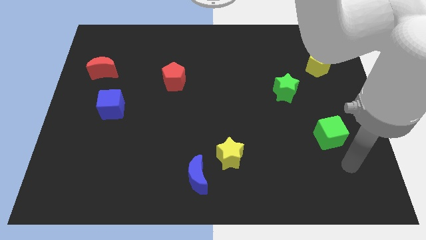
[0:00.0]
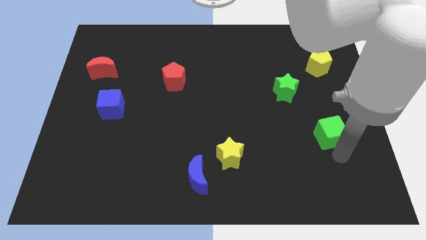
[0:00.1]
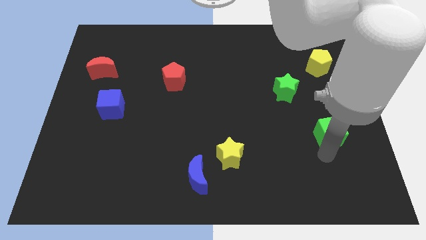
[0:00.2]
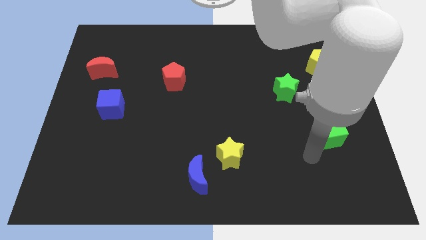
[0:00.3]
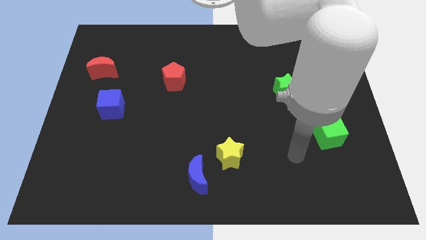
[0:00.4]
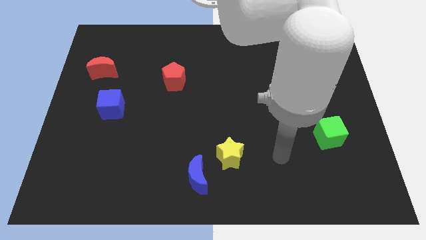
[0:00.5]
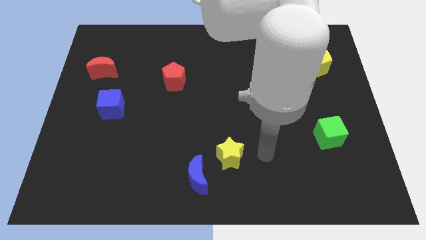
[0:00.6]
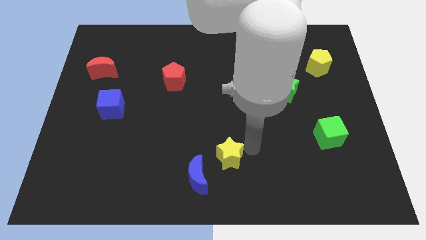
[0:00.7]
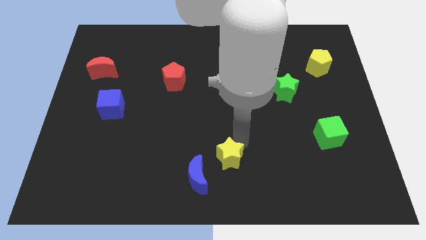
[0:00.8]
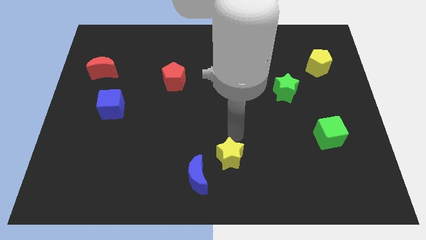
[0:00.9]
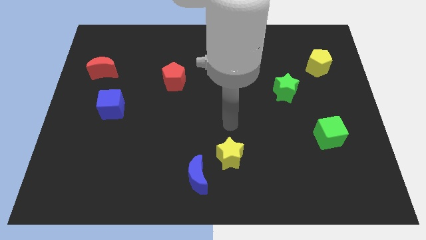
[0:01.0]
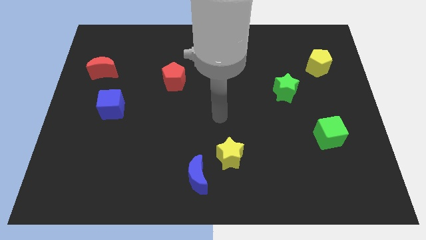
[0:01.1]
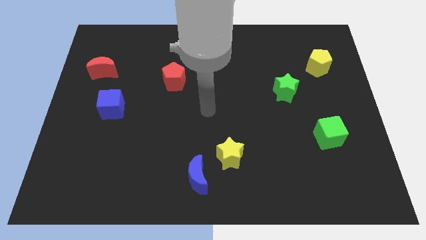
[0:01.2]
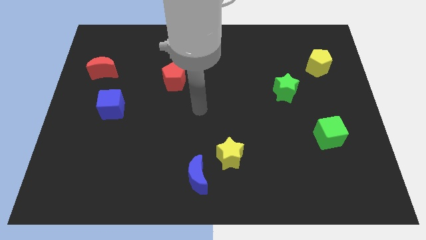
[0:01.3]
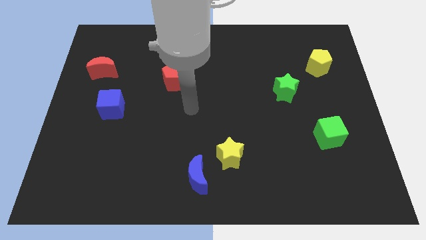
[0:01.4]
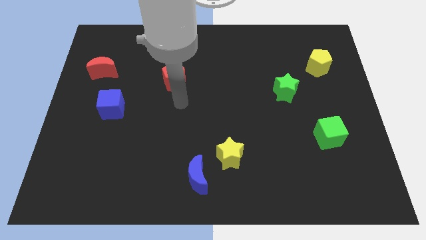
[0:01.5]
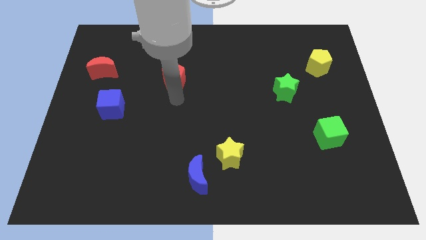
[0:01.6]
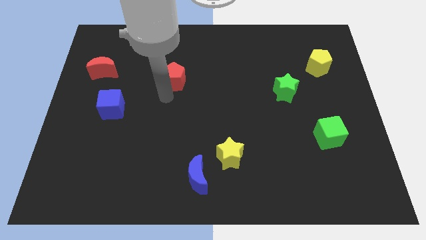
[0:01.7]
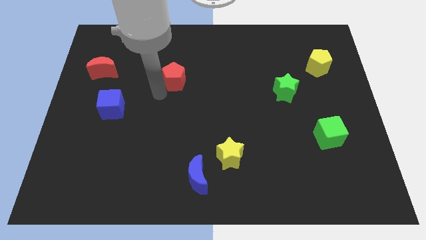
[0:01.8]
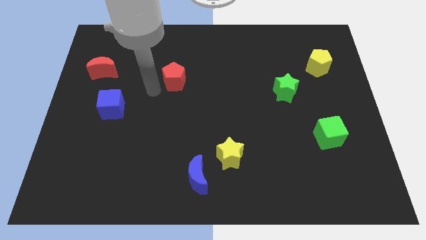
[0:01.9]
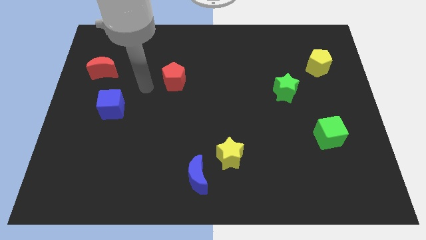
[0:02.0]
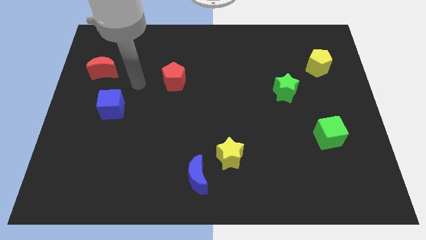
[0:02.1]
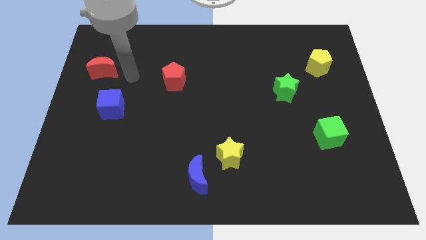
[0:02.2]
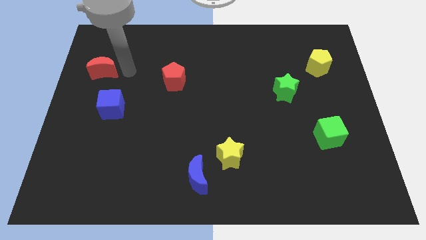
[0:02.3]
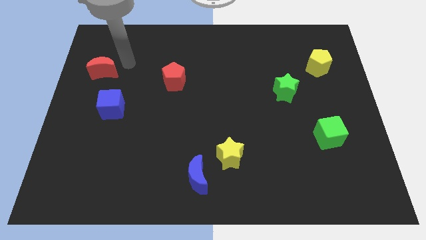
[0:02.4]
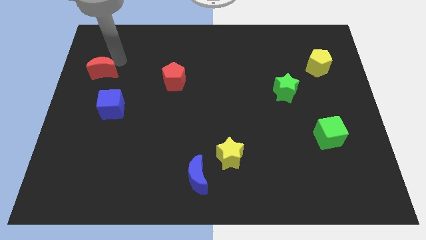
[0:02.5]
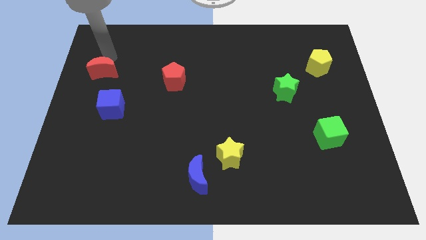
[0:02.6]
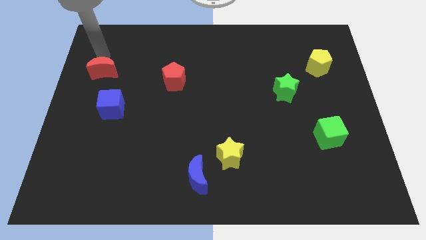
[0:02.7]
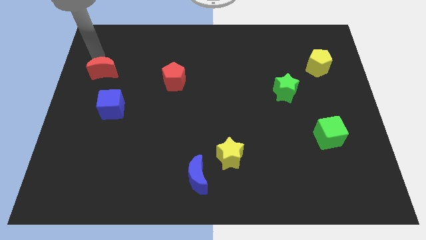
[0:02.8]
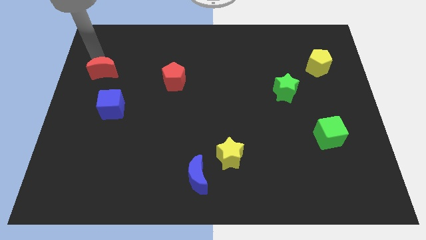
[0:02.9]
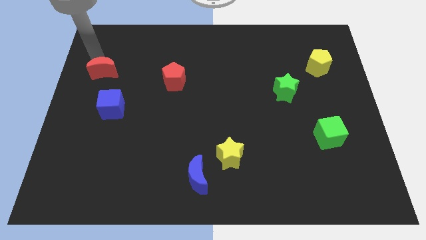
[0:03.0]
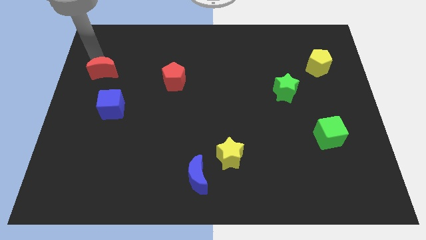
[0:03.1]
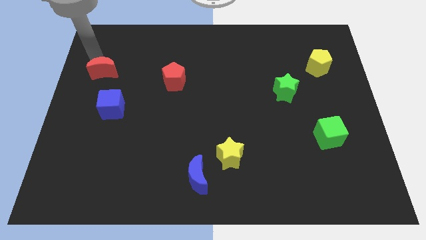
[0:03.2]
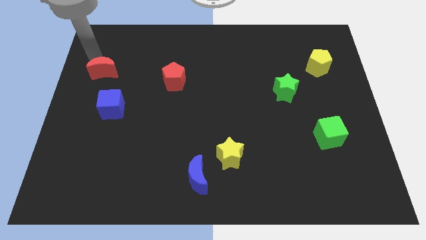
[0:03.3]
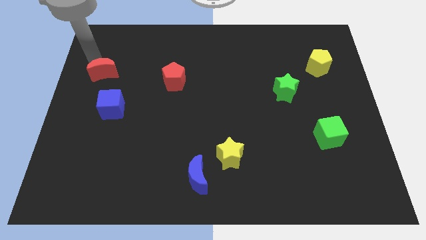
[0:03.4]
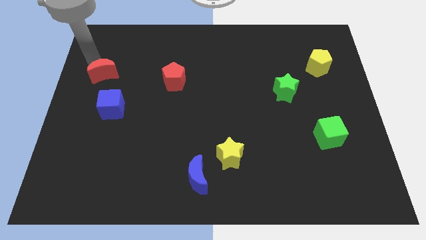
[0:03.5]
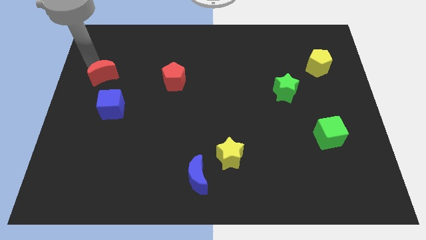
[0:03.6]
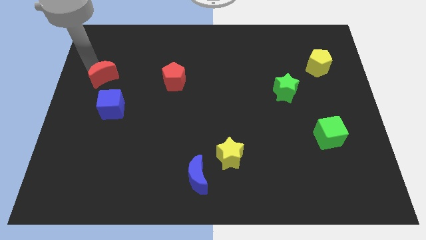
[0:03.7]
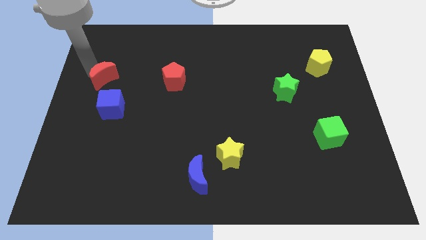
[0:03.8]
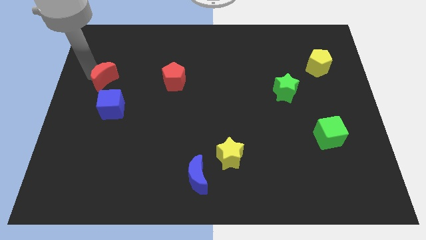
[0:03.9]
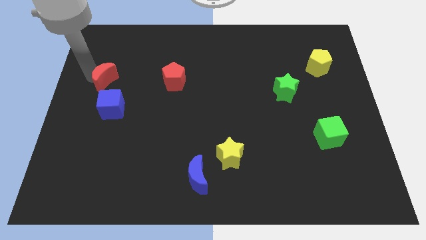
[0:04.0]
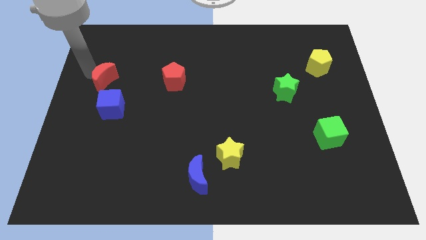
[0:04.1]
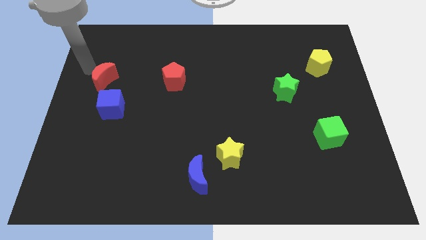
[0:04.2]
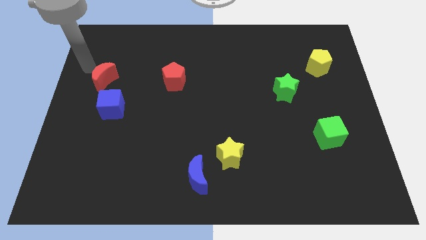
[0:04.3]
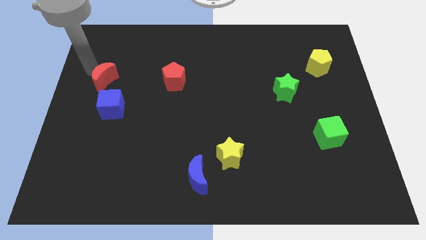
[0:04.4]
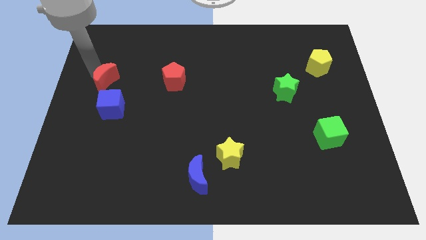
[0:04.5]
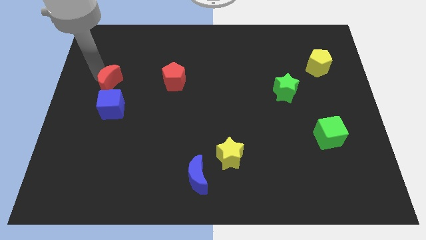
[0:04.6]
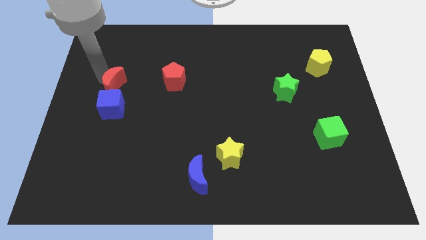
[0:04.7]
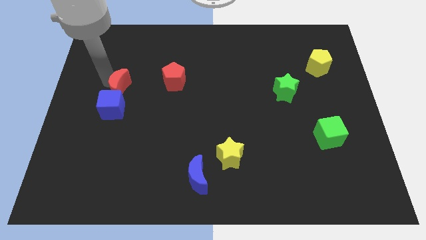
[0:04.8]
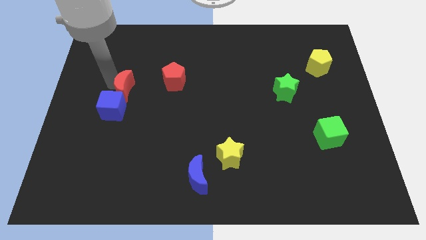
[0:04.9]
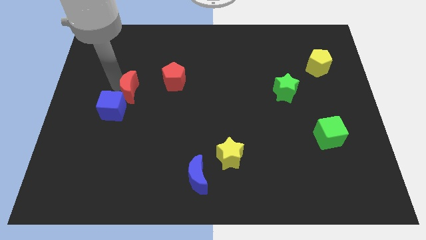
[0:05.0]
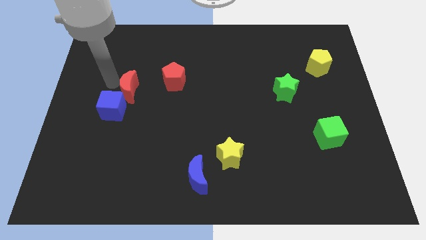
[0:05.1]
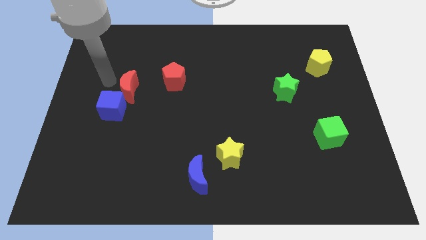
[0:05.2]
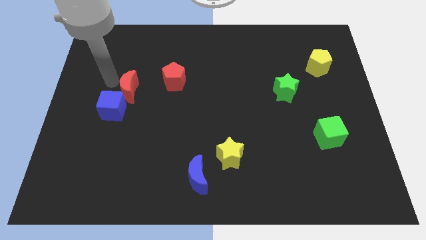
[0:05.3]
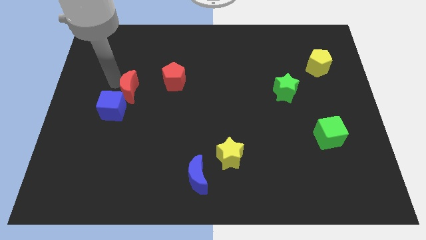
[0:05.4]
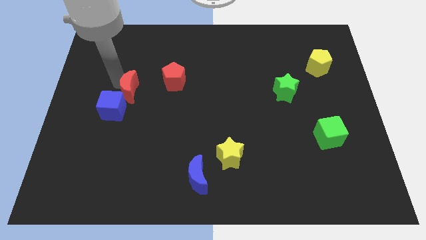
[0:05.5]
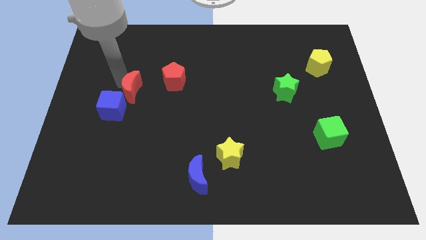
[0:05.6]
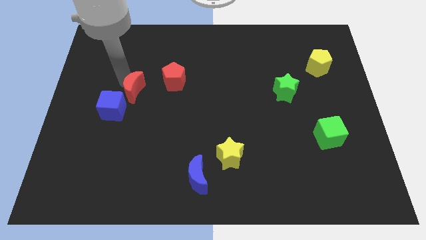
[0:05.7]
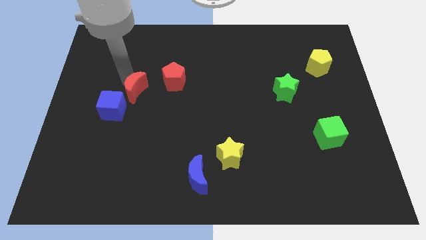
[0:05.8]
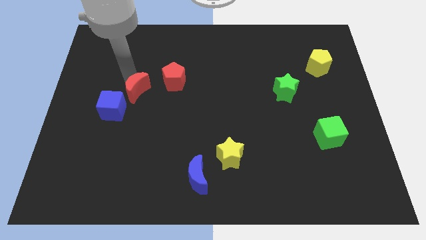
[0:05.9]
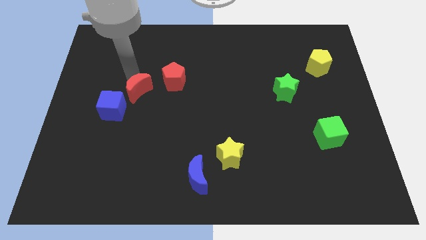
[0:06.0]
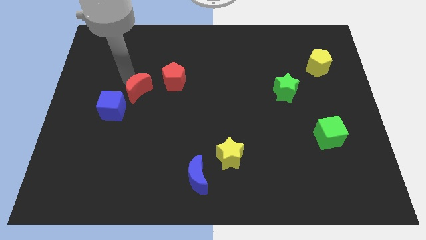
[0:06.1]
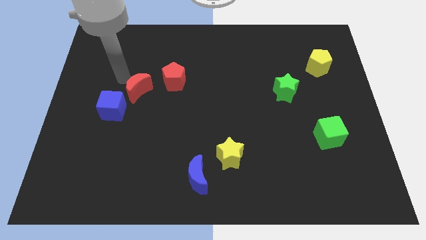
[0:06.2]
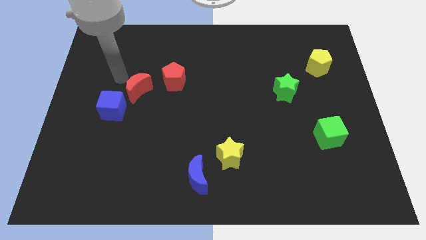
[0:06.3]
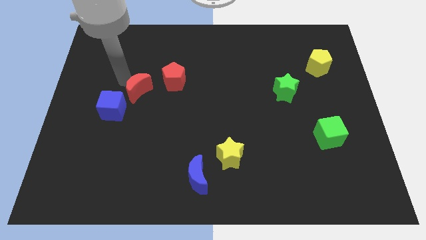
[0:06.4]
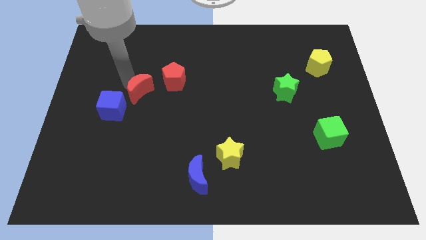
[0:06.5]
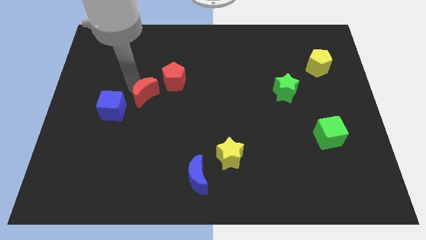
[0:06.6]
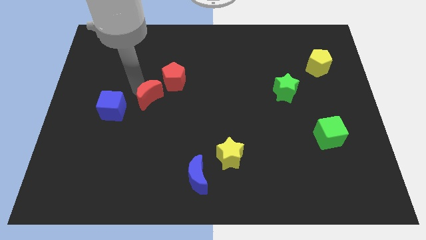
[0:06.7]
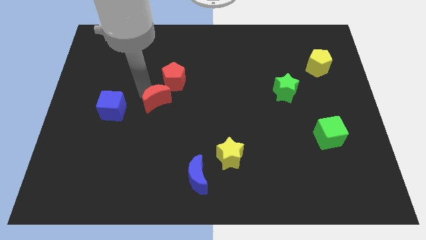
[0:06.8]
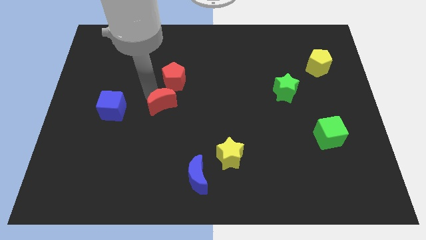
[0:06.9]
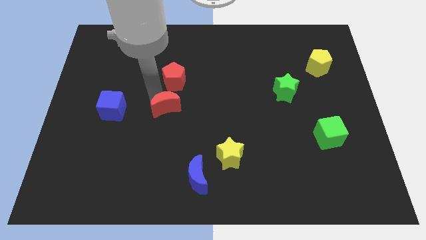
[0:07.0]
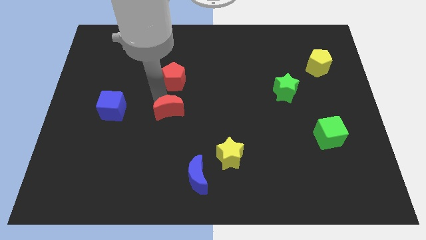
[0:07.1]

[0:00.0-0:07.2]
push the red moon diagonally downwards and to the right

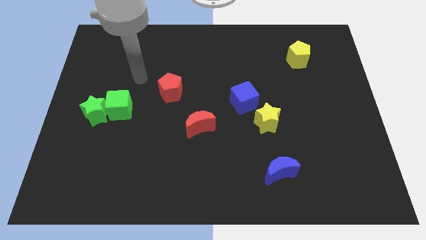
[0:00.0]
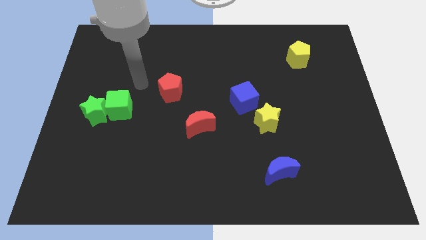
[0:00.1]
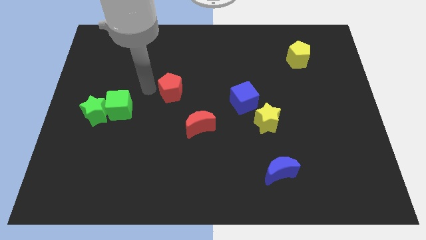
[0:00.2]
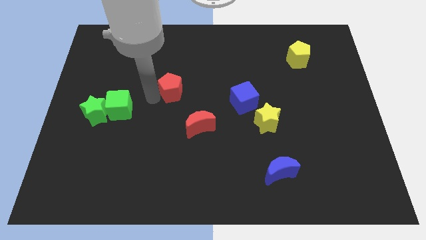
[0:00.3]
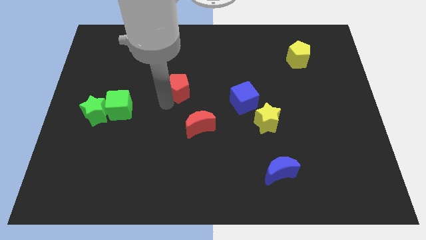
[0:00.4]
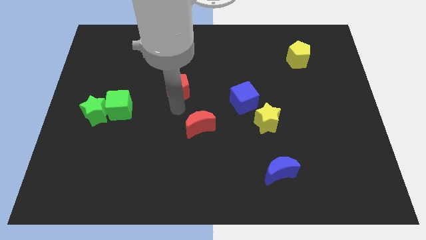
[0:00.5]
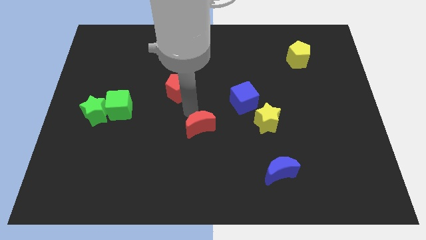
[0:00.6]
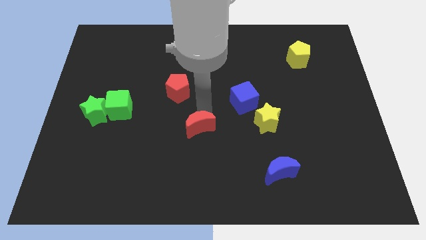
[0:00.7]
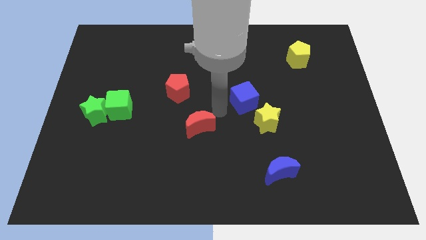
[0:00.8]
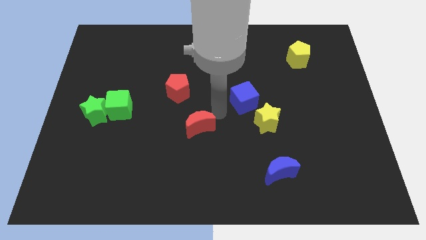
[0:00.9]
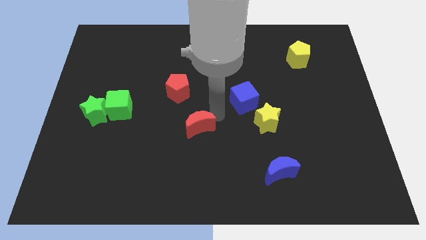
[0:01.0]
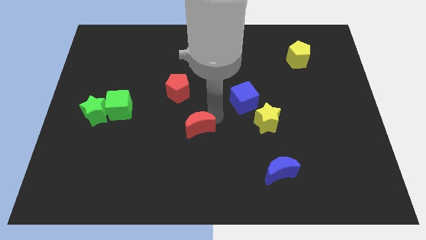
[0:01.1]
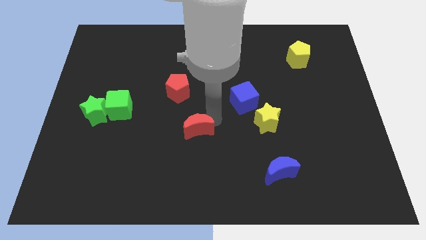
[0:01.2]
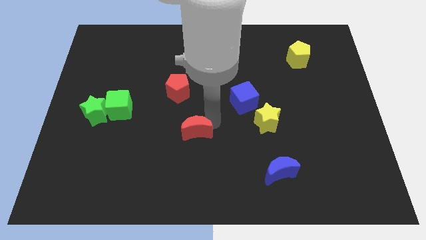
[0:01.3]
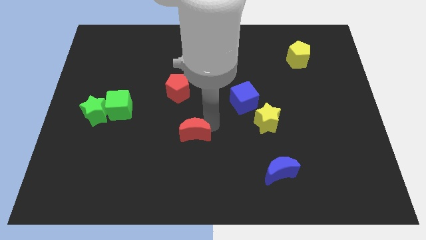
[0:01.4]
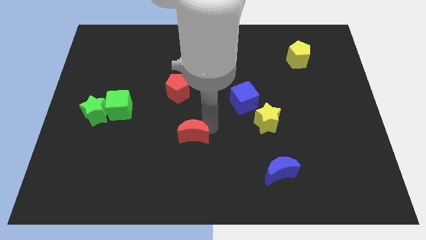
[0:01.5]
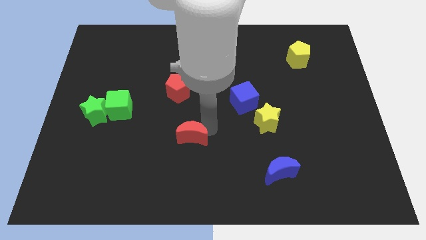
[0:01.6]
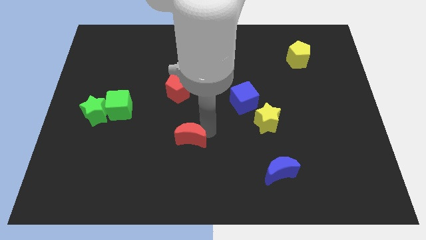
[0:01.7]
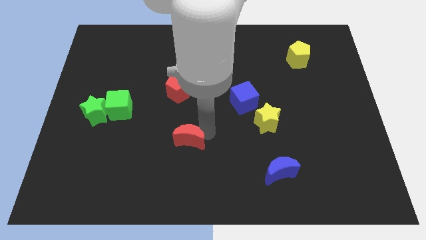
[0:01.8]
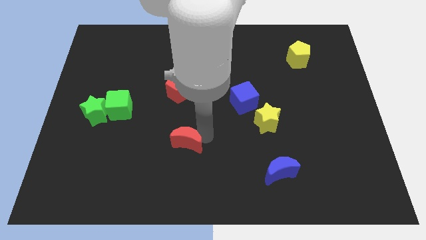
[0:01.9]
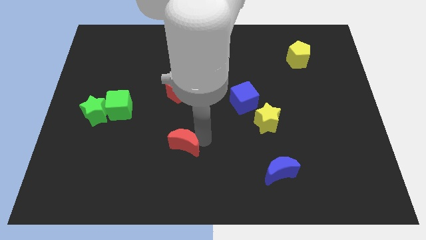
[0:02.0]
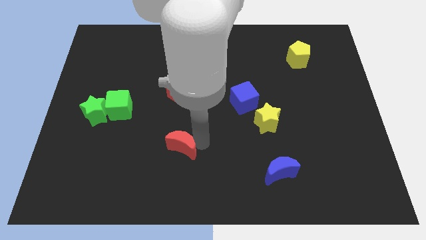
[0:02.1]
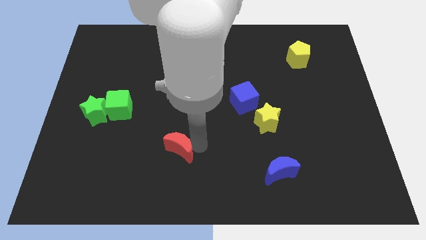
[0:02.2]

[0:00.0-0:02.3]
push the red moon a little down and to the left
